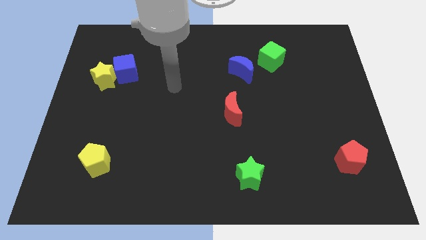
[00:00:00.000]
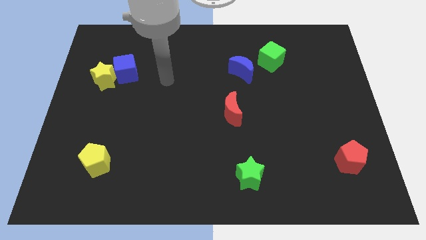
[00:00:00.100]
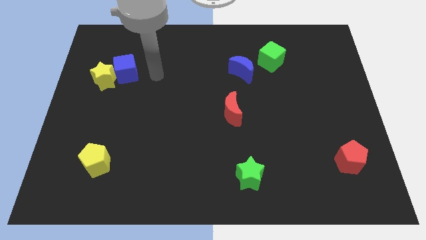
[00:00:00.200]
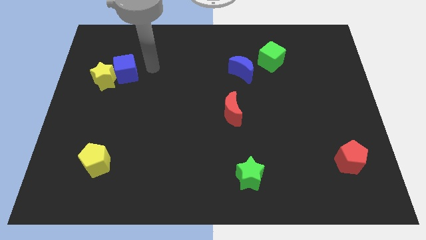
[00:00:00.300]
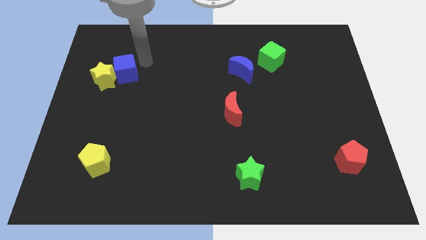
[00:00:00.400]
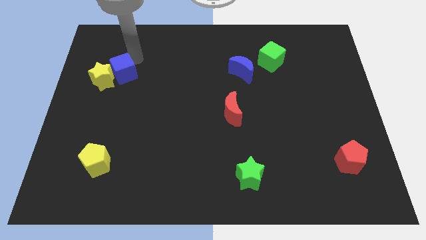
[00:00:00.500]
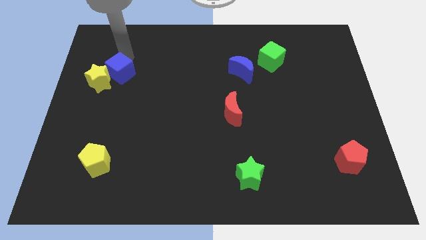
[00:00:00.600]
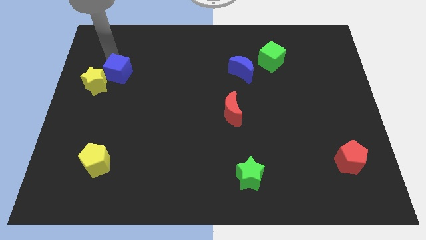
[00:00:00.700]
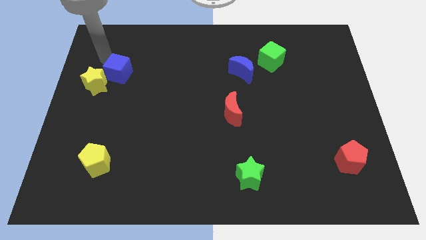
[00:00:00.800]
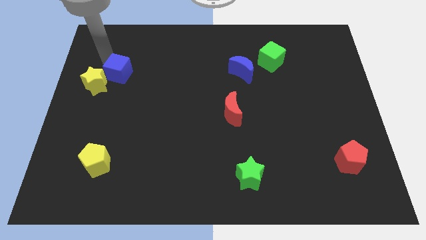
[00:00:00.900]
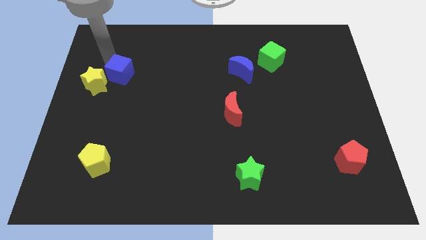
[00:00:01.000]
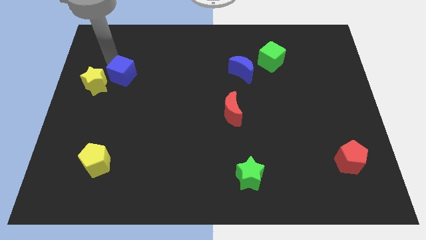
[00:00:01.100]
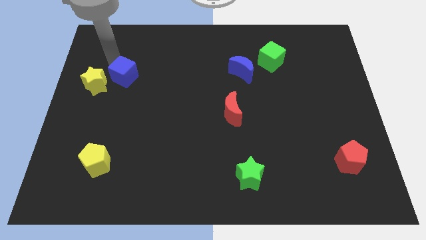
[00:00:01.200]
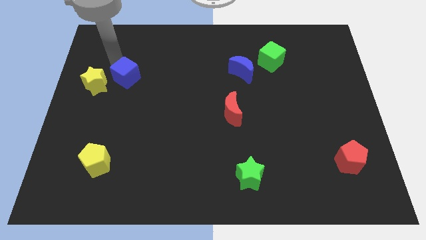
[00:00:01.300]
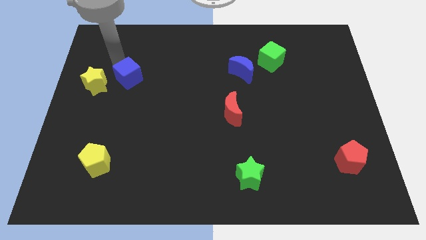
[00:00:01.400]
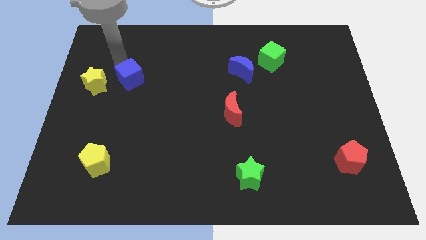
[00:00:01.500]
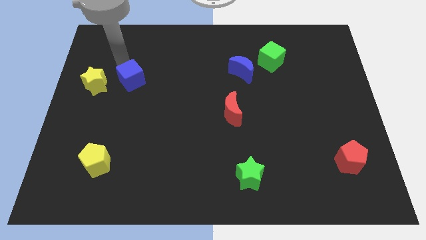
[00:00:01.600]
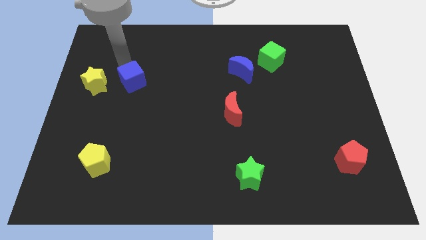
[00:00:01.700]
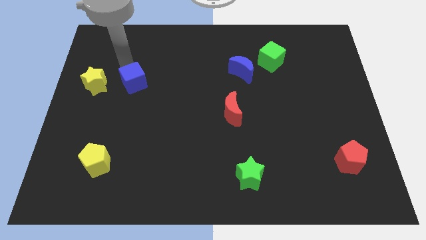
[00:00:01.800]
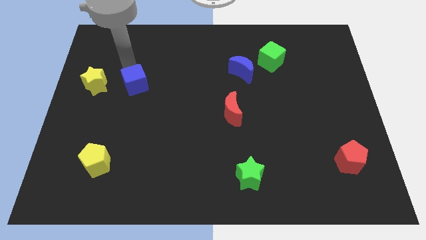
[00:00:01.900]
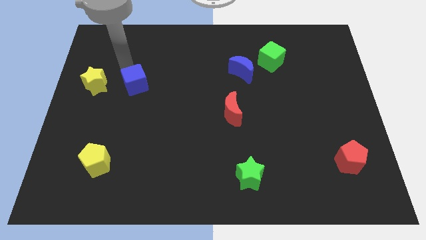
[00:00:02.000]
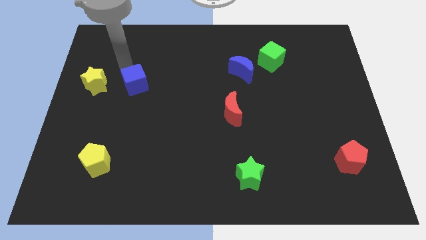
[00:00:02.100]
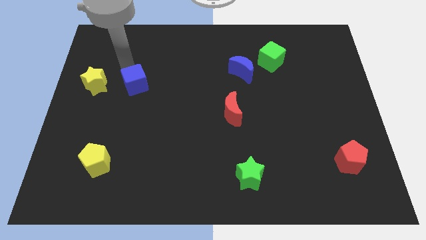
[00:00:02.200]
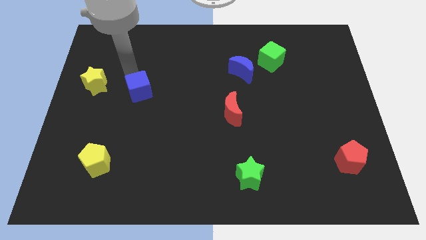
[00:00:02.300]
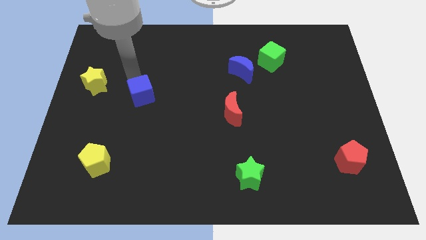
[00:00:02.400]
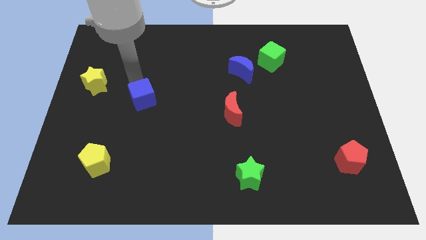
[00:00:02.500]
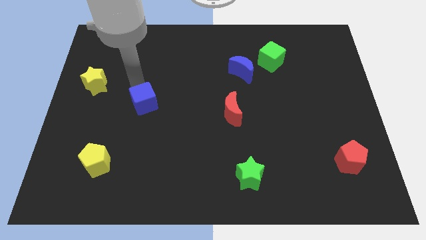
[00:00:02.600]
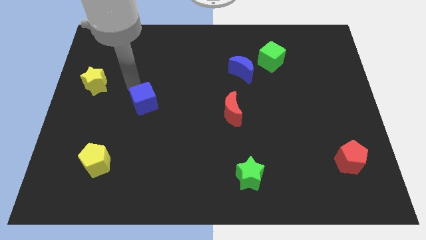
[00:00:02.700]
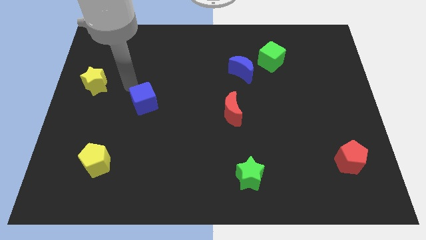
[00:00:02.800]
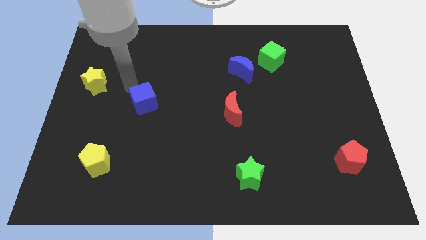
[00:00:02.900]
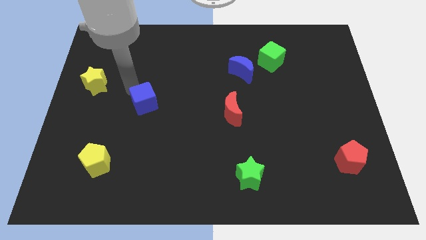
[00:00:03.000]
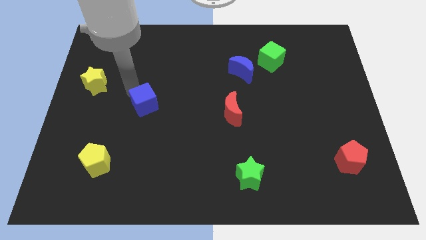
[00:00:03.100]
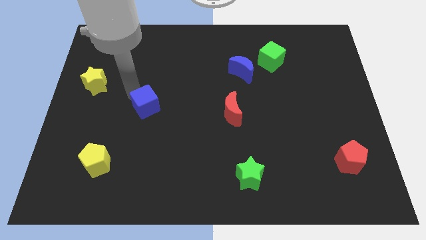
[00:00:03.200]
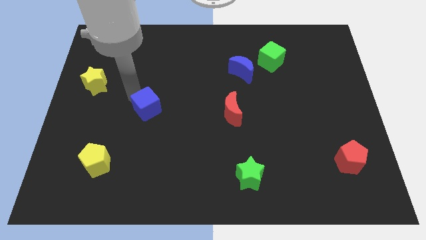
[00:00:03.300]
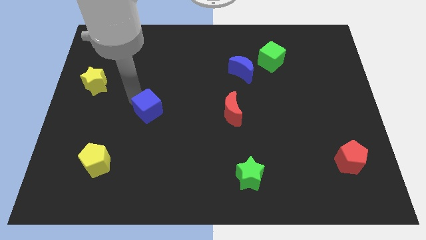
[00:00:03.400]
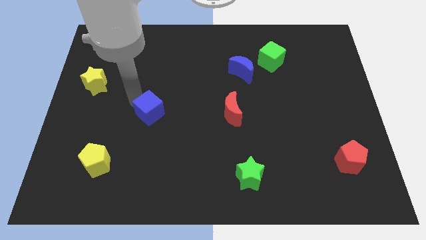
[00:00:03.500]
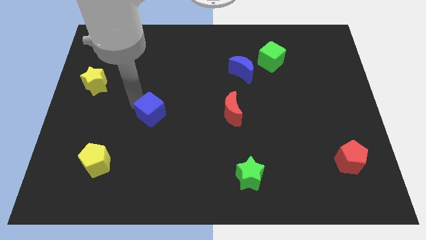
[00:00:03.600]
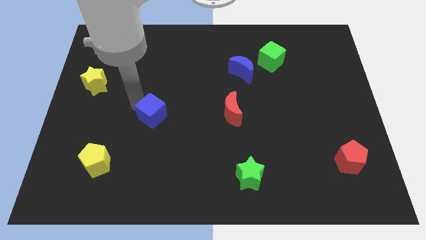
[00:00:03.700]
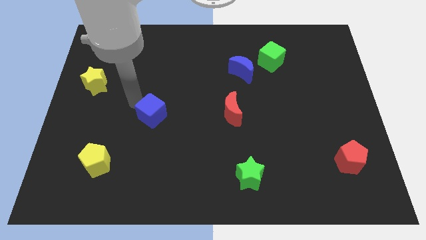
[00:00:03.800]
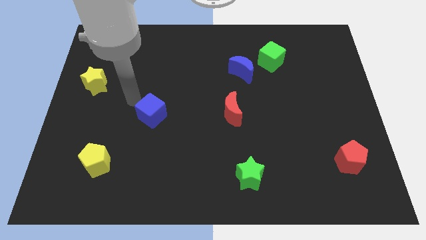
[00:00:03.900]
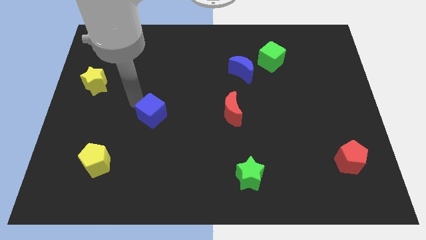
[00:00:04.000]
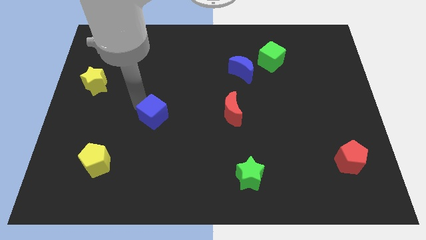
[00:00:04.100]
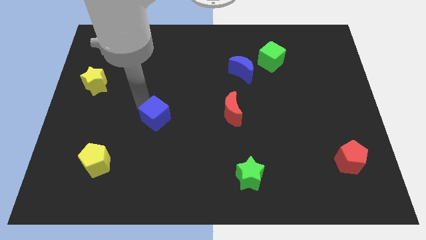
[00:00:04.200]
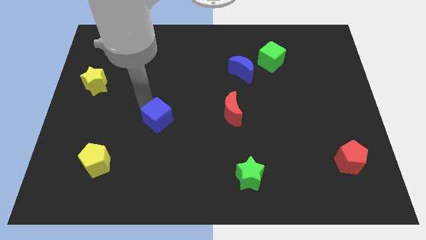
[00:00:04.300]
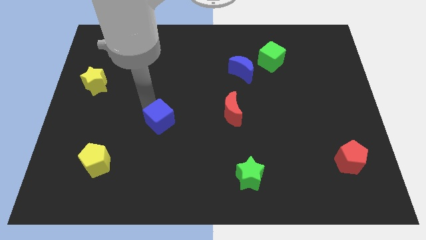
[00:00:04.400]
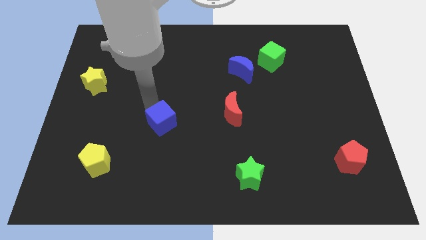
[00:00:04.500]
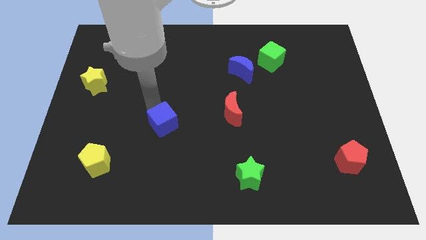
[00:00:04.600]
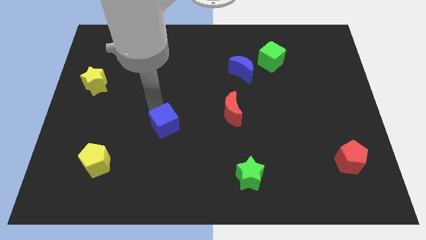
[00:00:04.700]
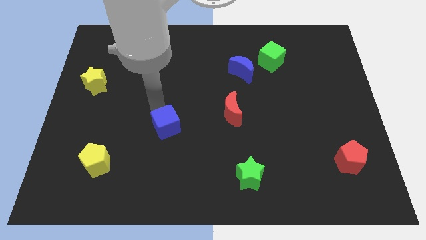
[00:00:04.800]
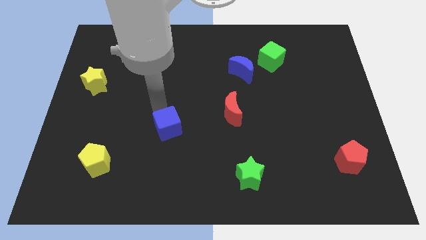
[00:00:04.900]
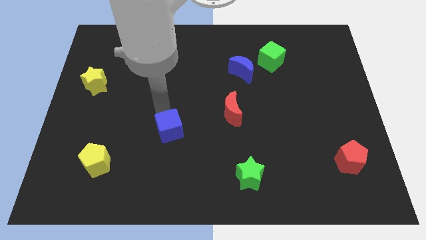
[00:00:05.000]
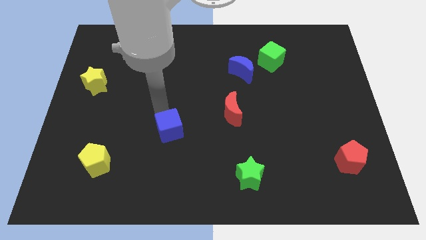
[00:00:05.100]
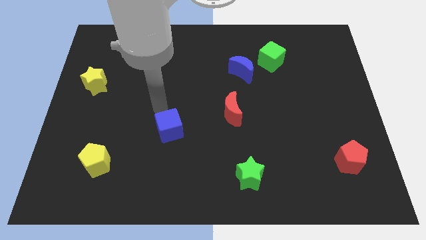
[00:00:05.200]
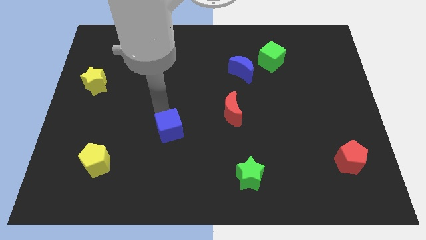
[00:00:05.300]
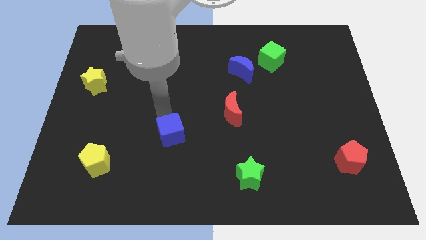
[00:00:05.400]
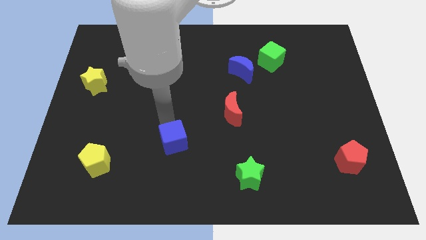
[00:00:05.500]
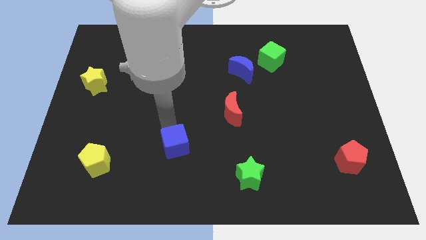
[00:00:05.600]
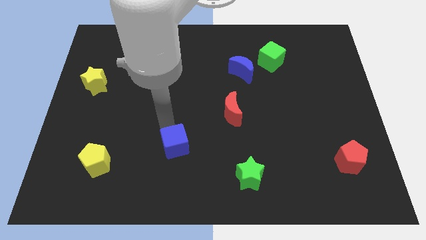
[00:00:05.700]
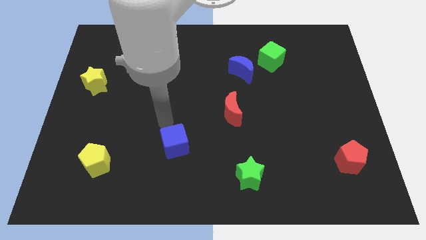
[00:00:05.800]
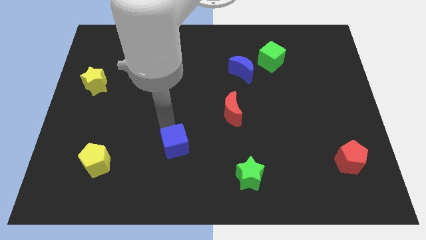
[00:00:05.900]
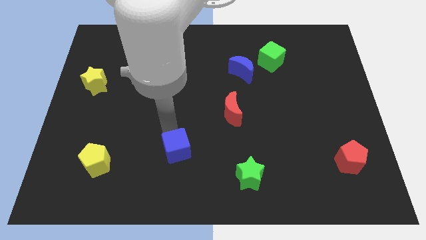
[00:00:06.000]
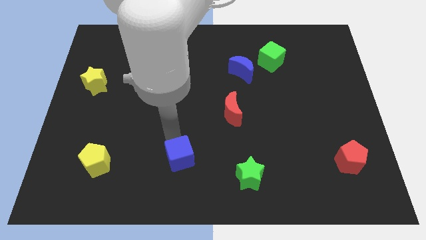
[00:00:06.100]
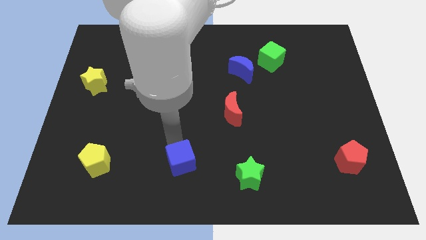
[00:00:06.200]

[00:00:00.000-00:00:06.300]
push the blue cube to the bottom
